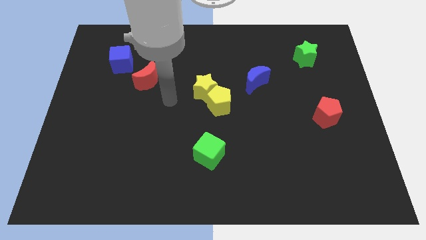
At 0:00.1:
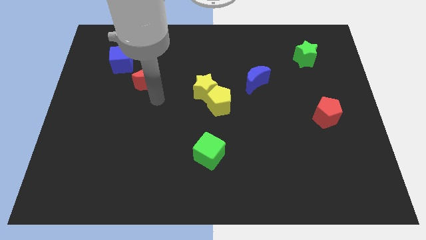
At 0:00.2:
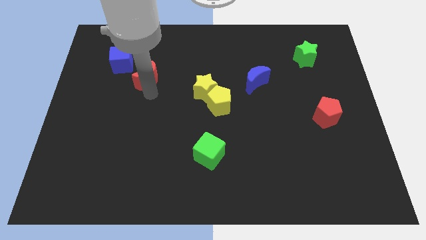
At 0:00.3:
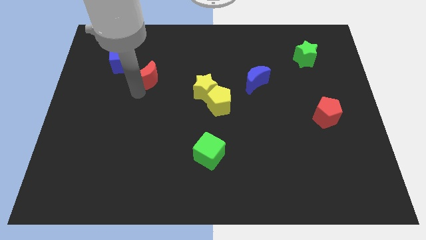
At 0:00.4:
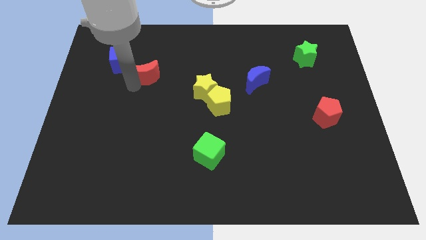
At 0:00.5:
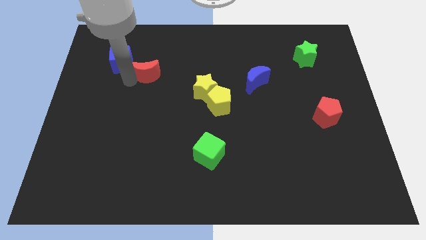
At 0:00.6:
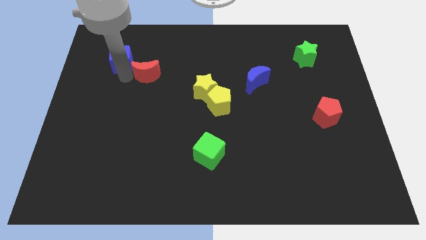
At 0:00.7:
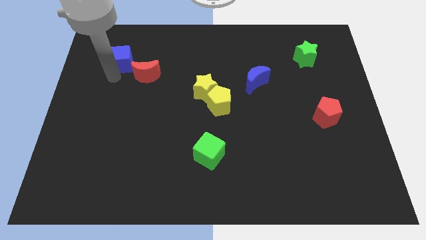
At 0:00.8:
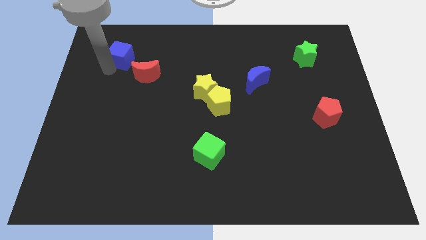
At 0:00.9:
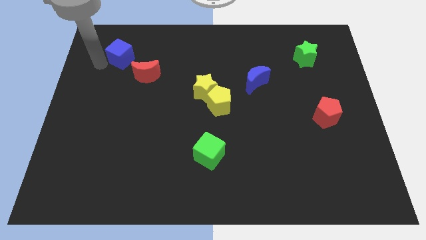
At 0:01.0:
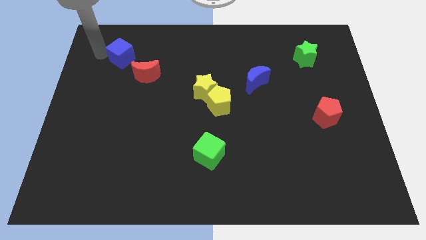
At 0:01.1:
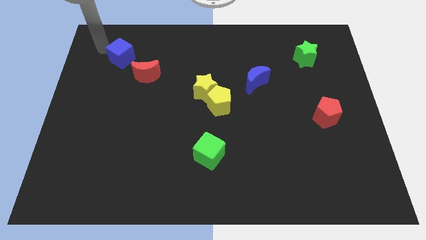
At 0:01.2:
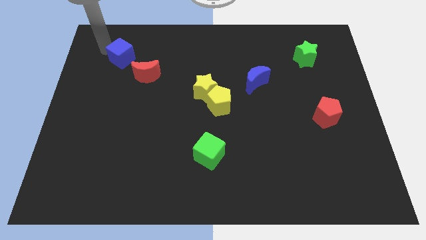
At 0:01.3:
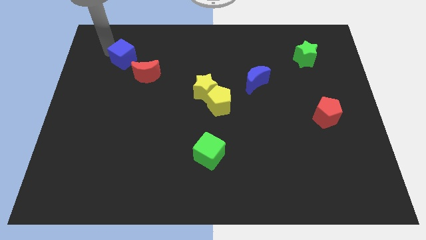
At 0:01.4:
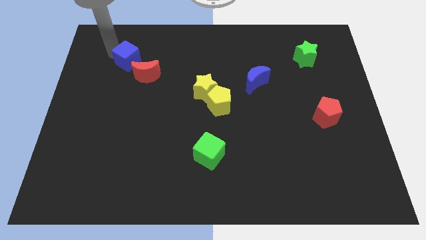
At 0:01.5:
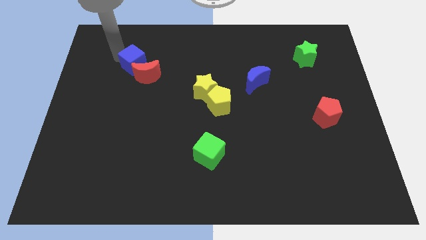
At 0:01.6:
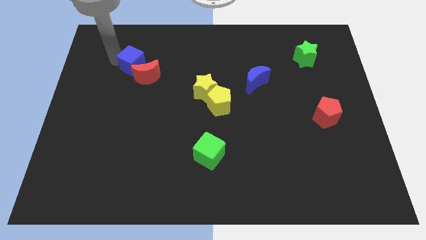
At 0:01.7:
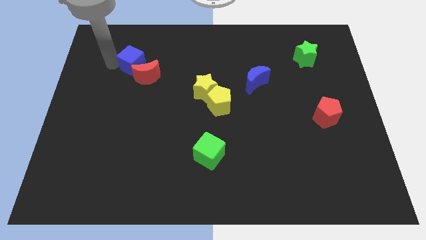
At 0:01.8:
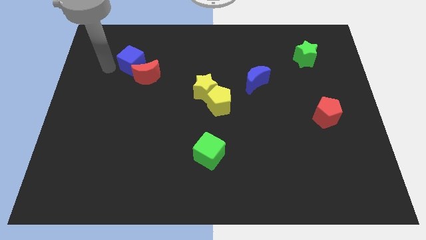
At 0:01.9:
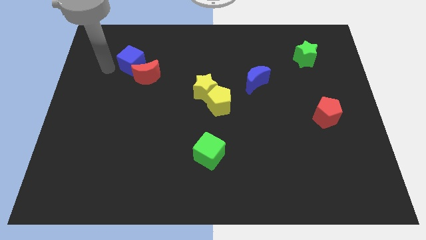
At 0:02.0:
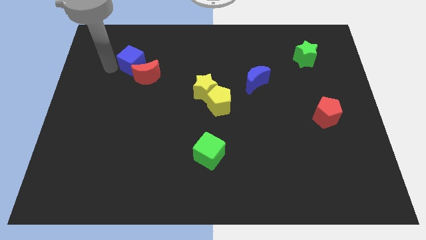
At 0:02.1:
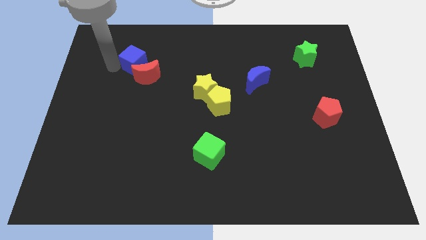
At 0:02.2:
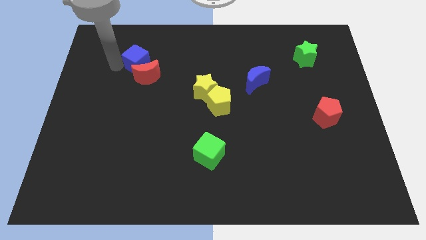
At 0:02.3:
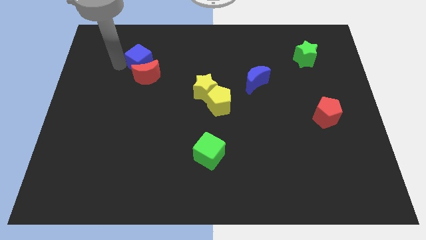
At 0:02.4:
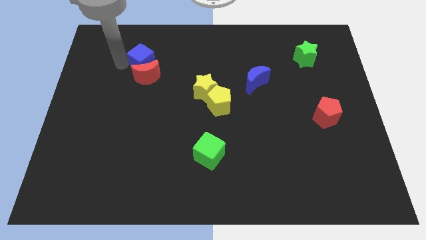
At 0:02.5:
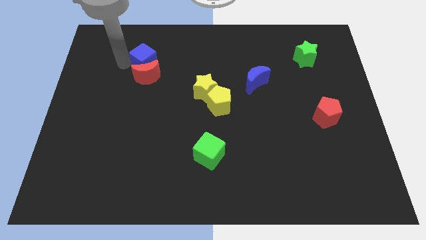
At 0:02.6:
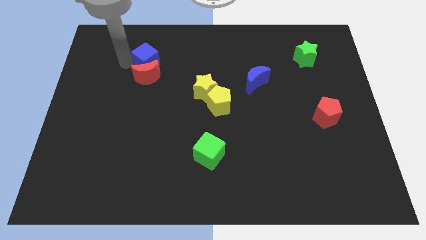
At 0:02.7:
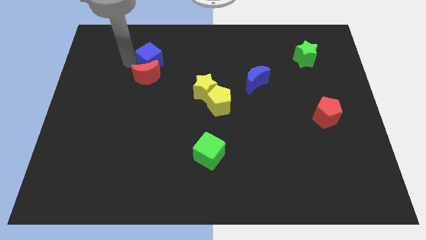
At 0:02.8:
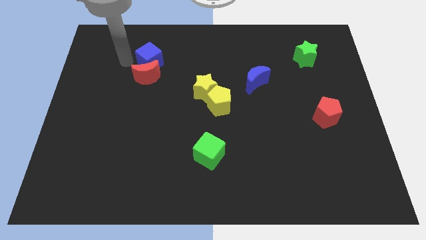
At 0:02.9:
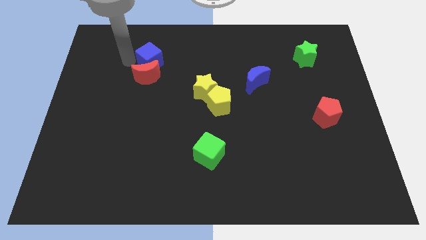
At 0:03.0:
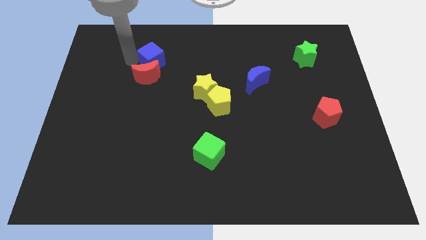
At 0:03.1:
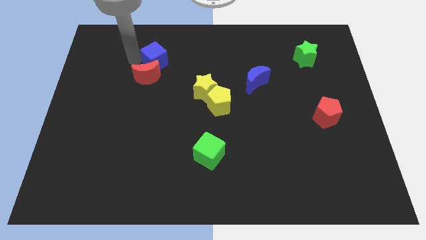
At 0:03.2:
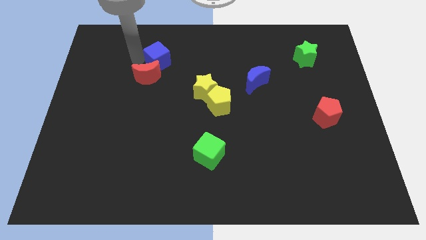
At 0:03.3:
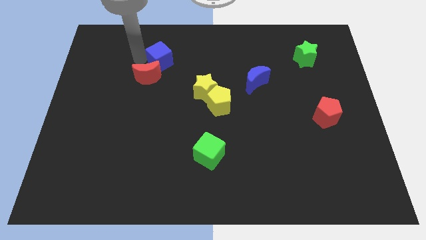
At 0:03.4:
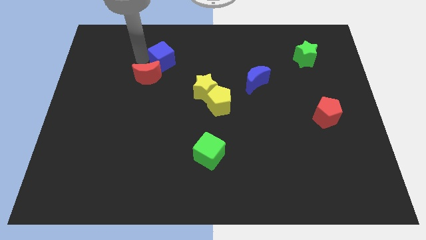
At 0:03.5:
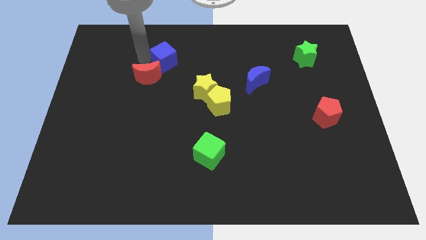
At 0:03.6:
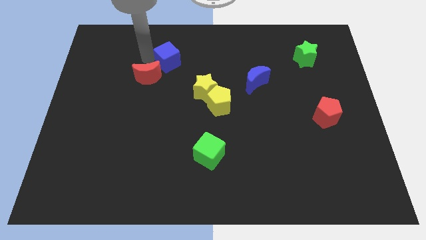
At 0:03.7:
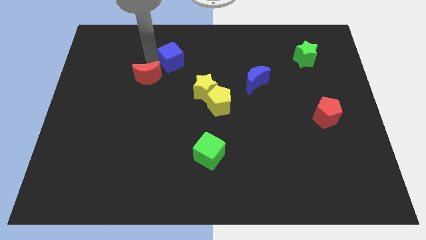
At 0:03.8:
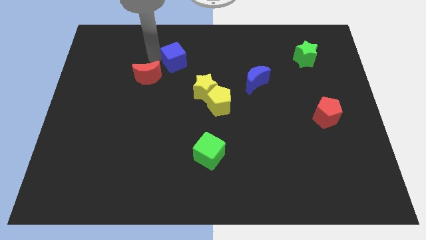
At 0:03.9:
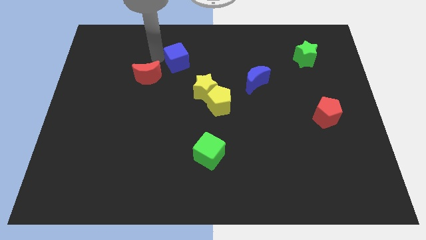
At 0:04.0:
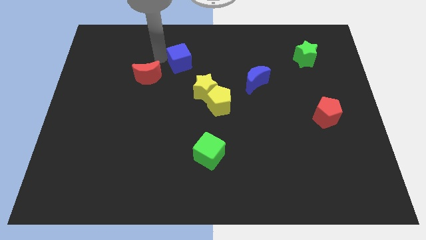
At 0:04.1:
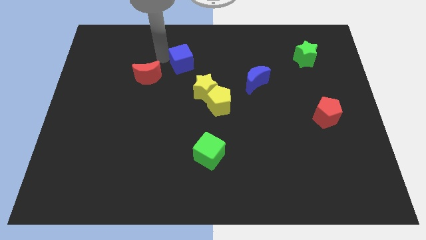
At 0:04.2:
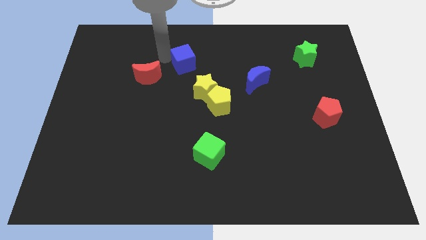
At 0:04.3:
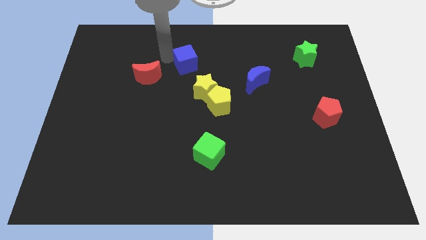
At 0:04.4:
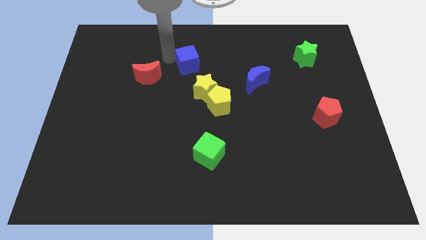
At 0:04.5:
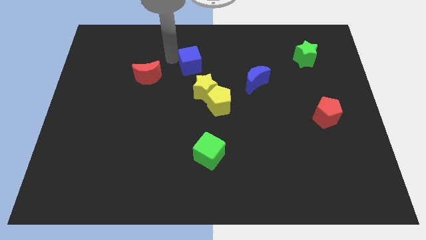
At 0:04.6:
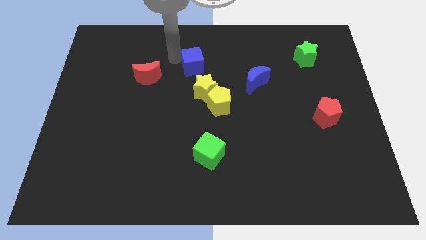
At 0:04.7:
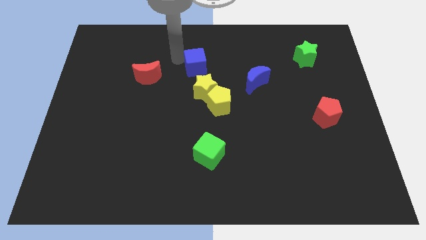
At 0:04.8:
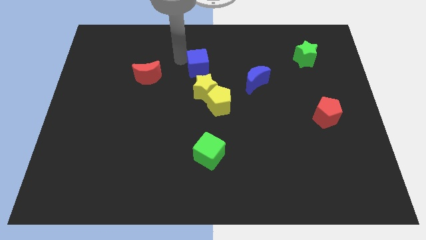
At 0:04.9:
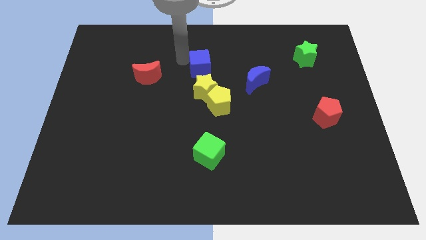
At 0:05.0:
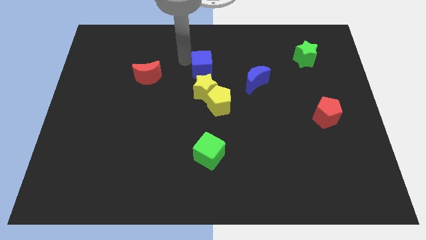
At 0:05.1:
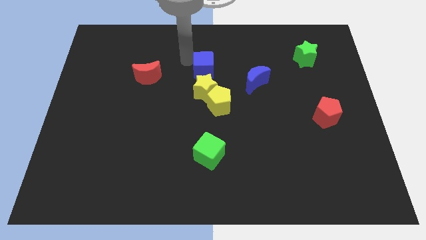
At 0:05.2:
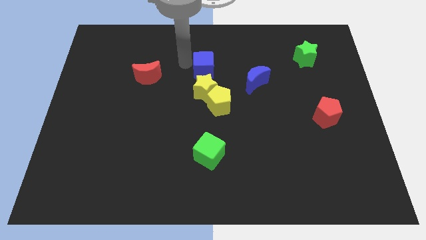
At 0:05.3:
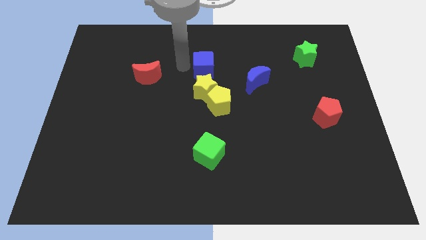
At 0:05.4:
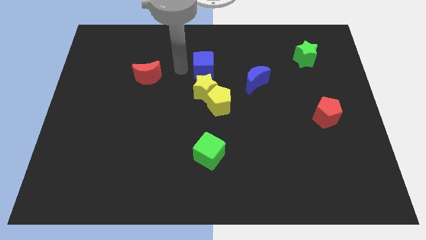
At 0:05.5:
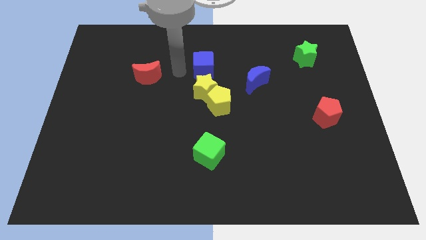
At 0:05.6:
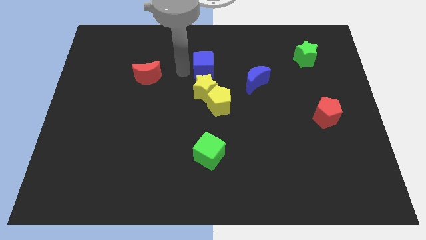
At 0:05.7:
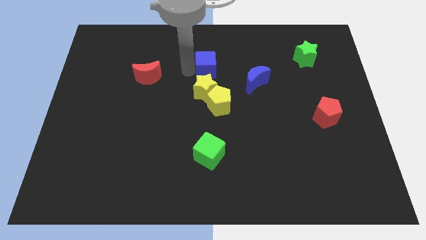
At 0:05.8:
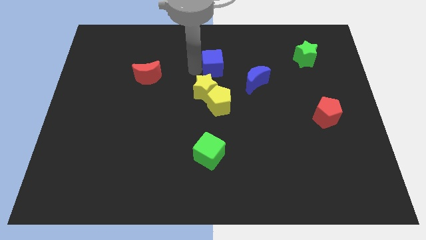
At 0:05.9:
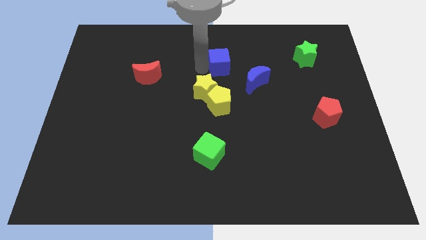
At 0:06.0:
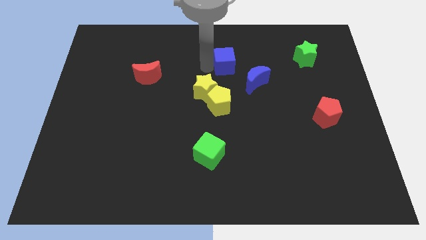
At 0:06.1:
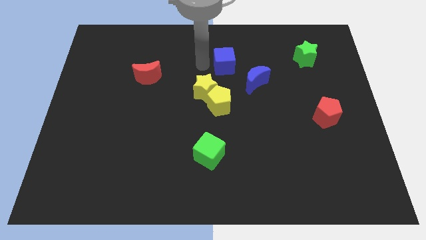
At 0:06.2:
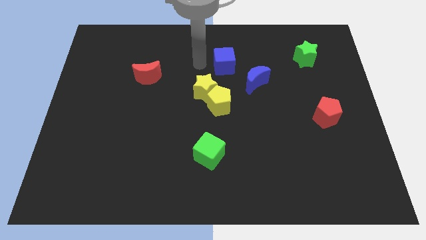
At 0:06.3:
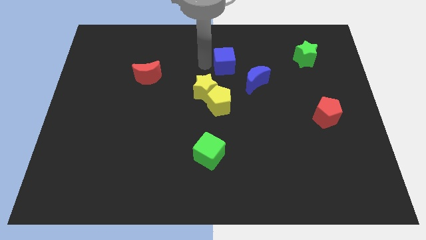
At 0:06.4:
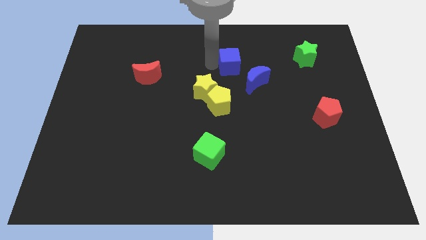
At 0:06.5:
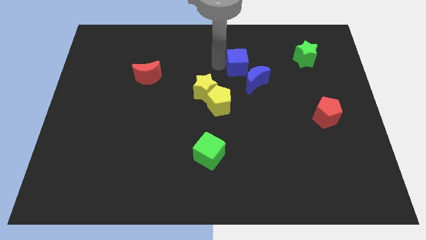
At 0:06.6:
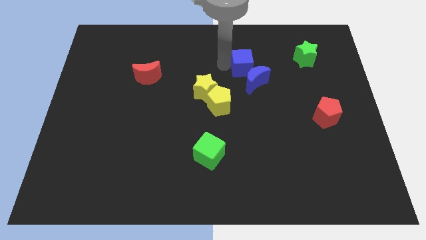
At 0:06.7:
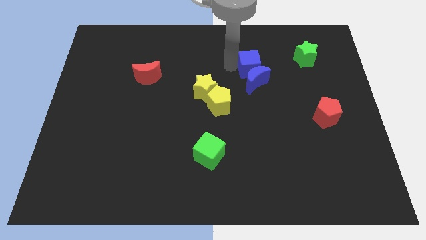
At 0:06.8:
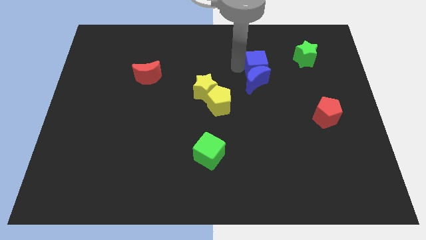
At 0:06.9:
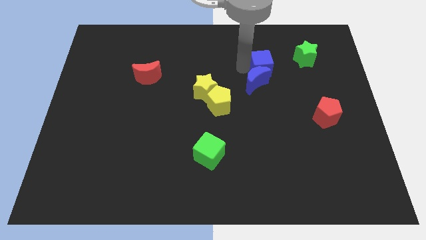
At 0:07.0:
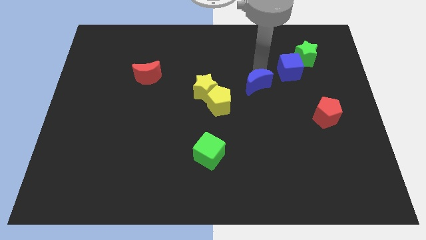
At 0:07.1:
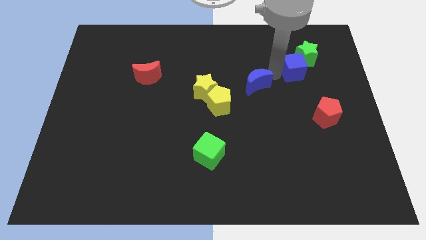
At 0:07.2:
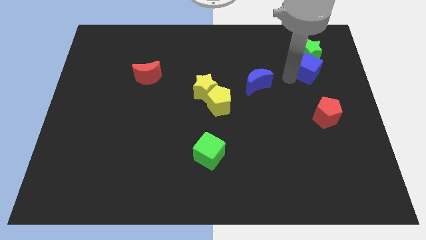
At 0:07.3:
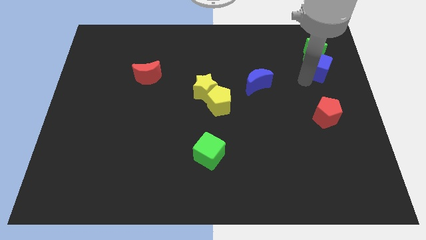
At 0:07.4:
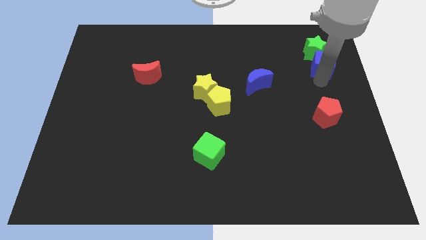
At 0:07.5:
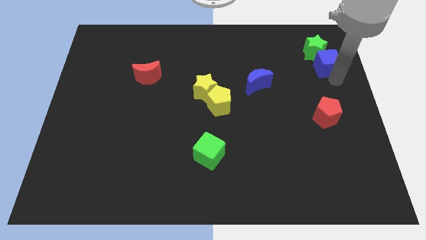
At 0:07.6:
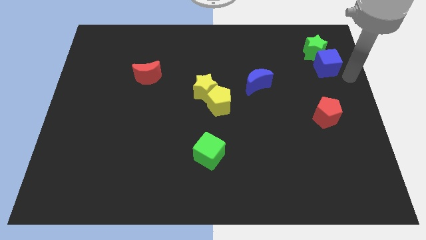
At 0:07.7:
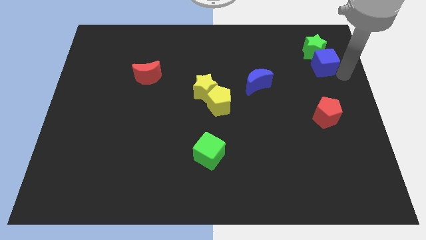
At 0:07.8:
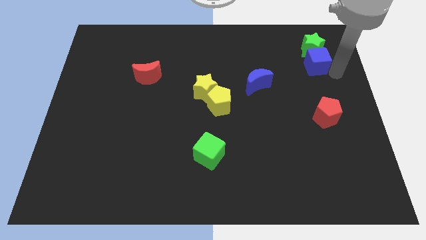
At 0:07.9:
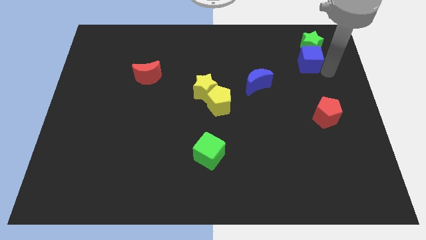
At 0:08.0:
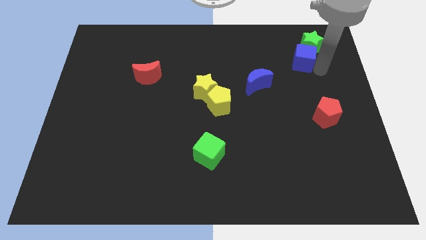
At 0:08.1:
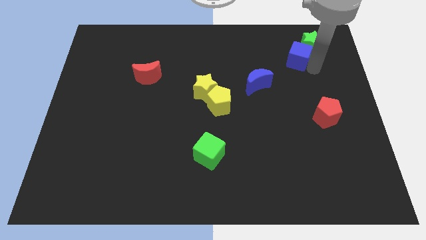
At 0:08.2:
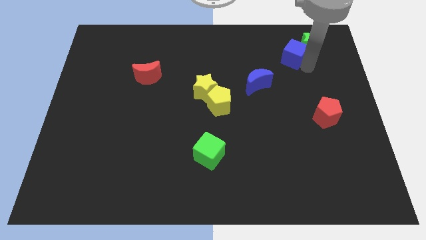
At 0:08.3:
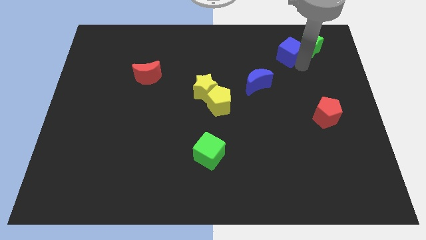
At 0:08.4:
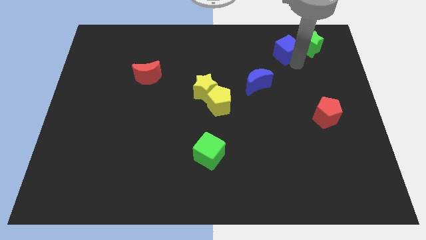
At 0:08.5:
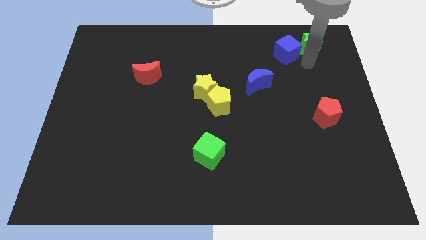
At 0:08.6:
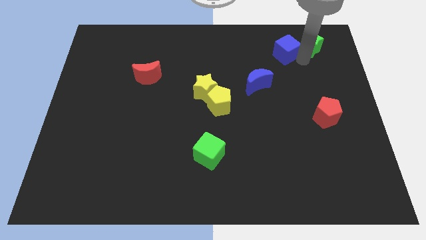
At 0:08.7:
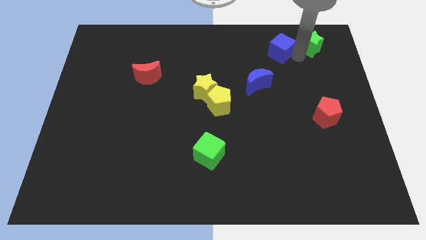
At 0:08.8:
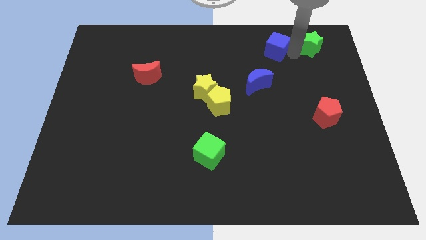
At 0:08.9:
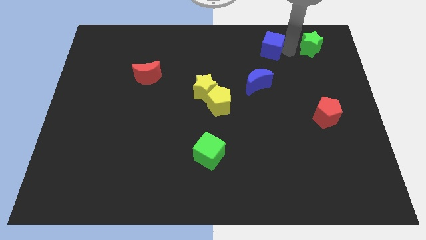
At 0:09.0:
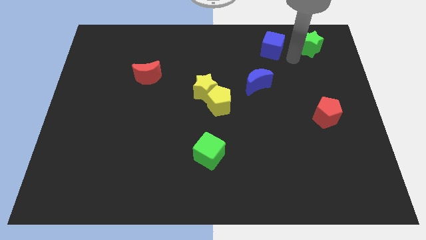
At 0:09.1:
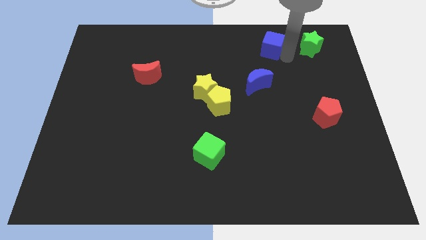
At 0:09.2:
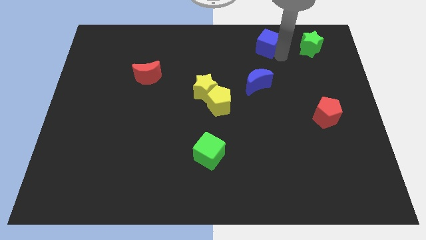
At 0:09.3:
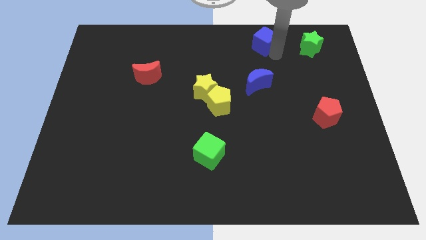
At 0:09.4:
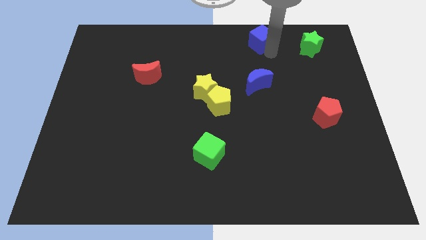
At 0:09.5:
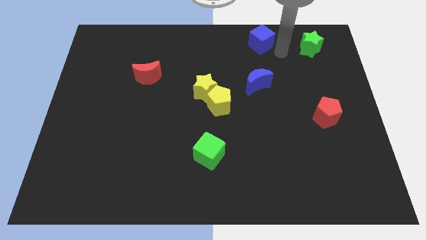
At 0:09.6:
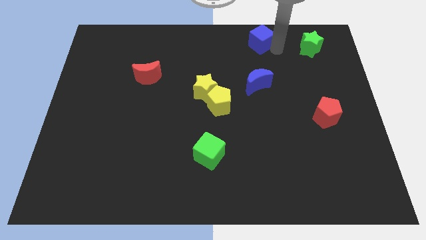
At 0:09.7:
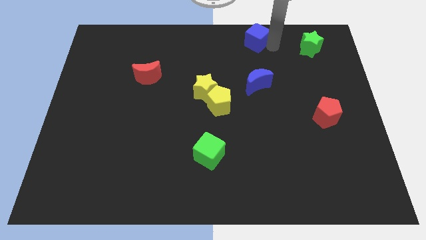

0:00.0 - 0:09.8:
put the blue cube to the top side
